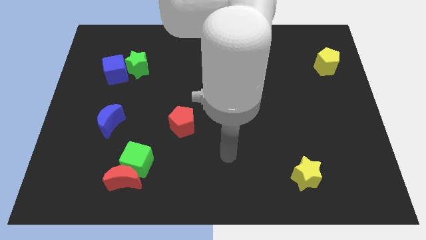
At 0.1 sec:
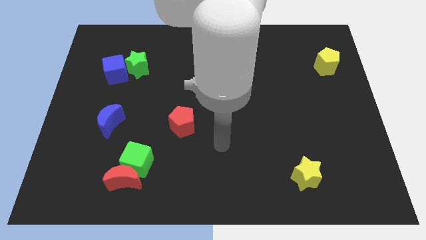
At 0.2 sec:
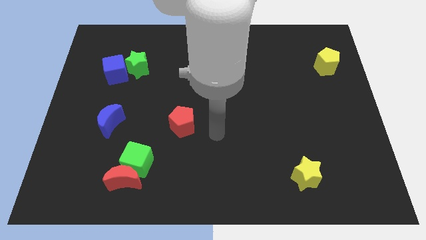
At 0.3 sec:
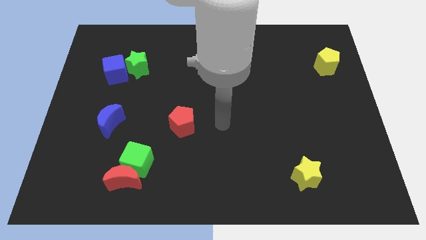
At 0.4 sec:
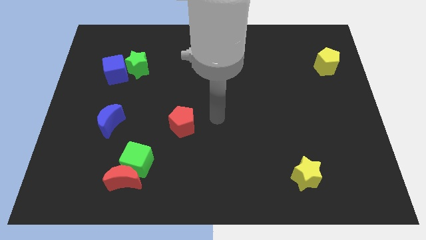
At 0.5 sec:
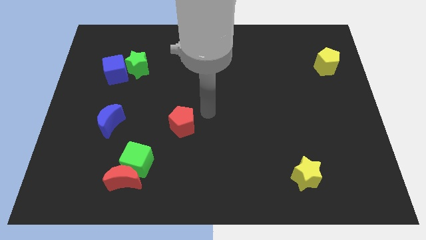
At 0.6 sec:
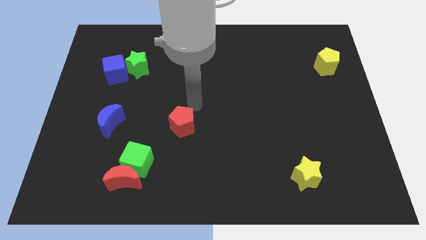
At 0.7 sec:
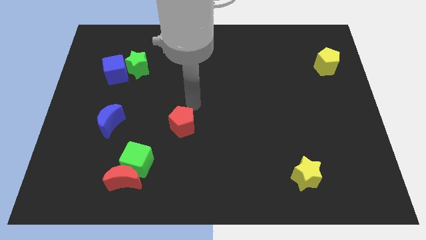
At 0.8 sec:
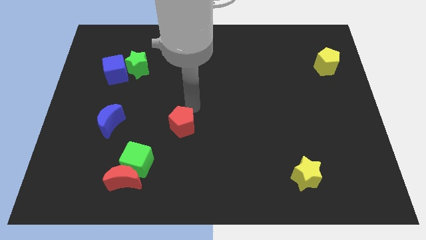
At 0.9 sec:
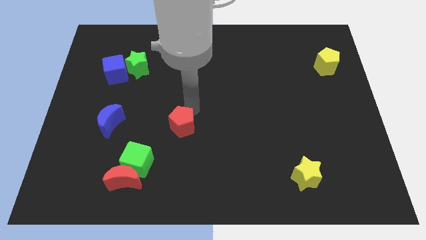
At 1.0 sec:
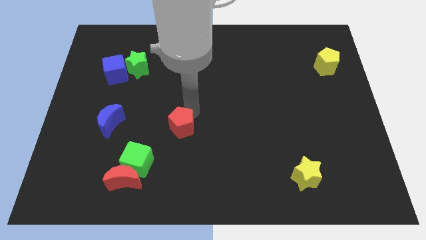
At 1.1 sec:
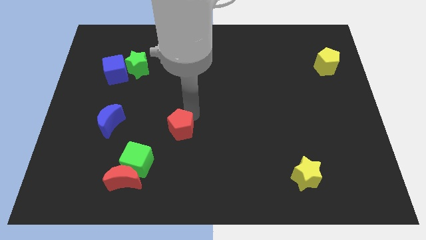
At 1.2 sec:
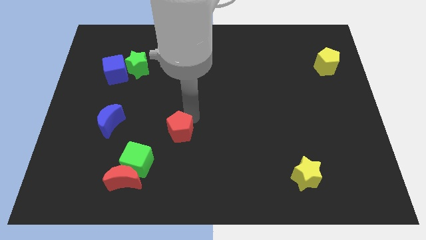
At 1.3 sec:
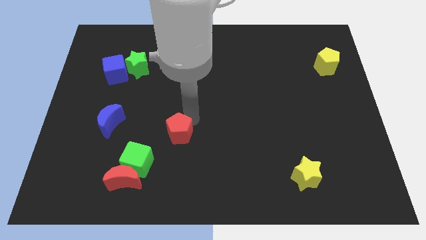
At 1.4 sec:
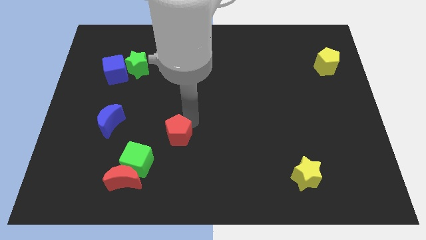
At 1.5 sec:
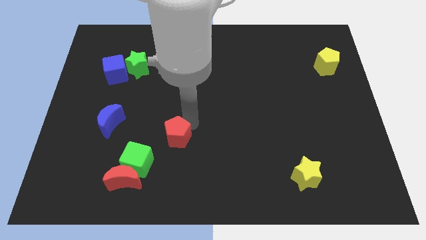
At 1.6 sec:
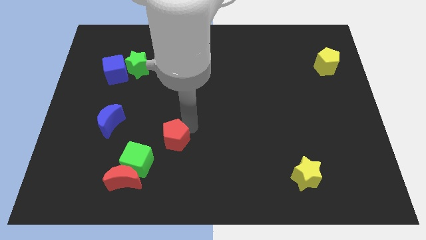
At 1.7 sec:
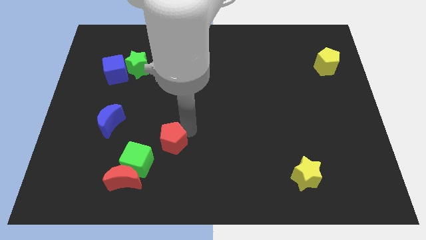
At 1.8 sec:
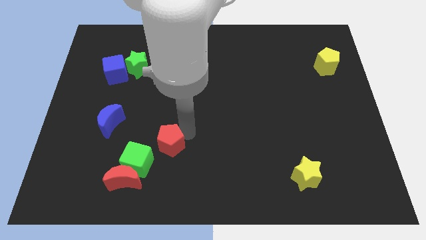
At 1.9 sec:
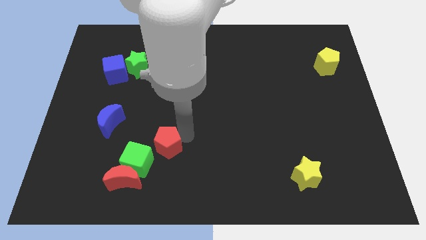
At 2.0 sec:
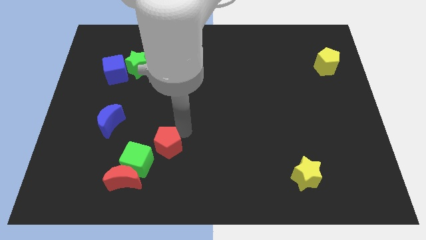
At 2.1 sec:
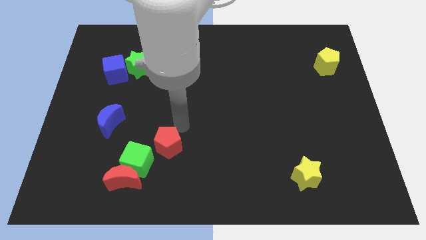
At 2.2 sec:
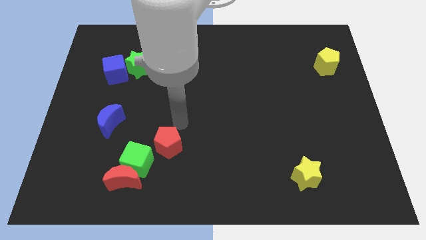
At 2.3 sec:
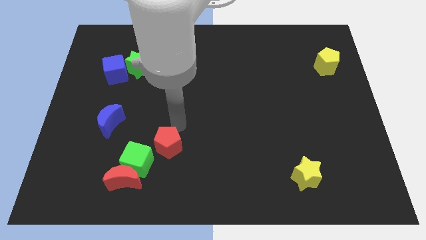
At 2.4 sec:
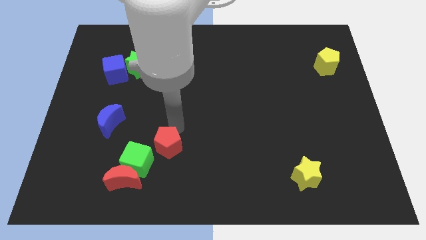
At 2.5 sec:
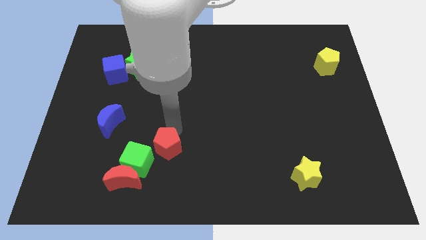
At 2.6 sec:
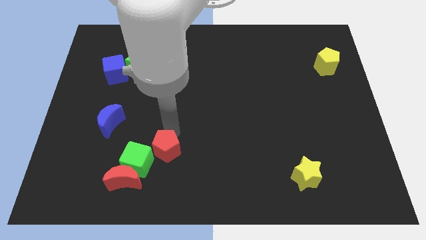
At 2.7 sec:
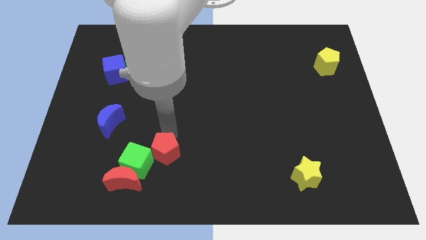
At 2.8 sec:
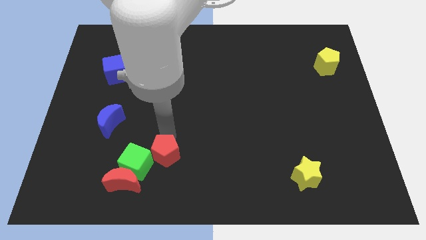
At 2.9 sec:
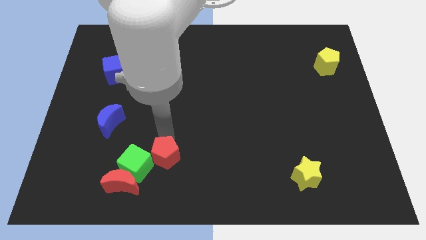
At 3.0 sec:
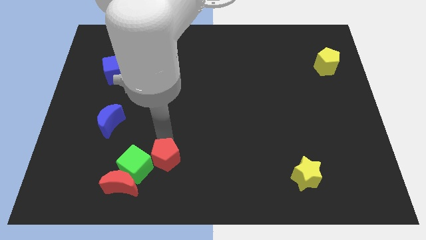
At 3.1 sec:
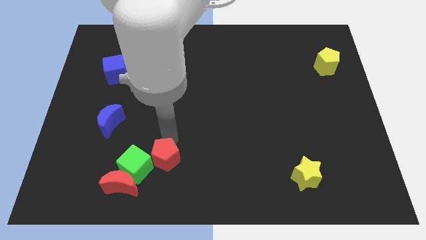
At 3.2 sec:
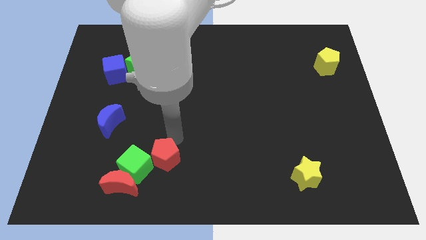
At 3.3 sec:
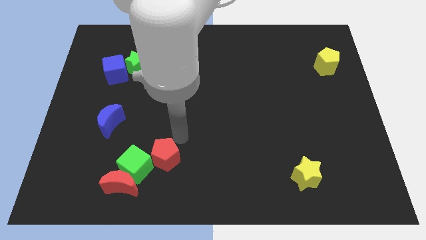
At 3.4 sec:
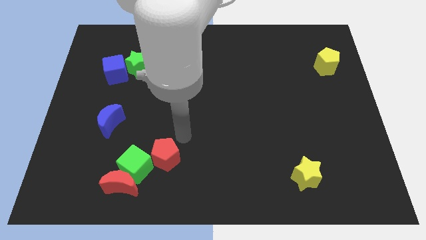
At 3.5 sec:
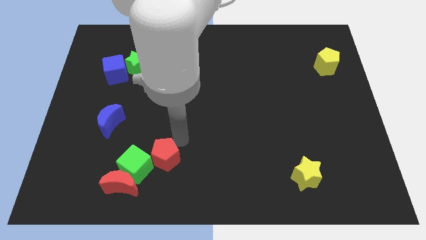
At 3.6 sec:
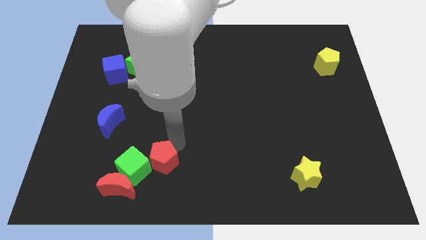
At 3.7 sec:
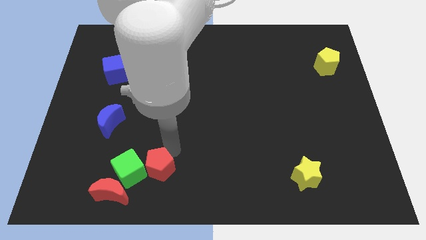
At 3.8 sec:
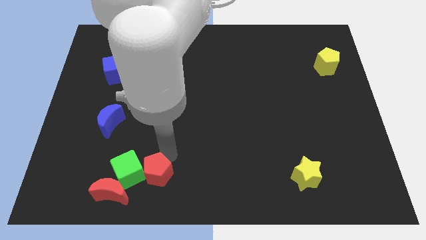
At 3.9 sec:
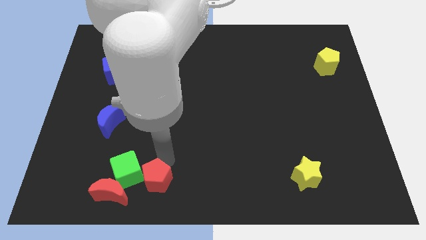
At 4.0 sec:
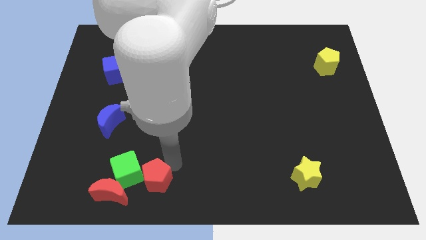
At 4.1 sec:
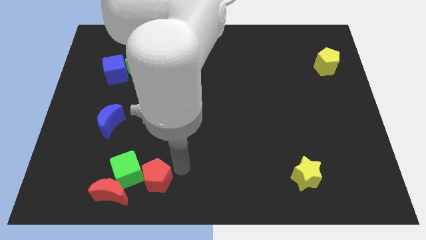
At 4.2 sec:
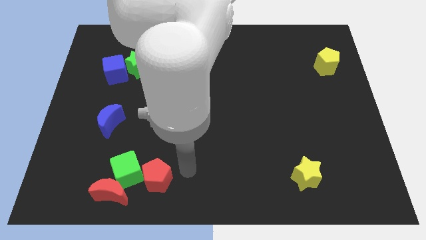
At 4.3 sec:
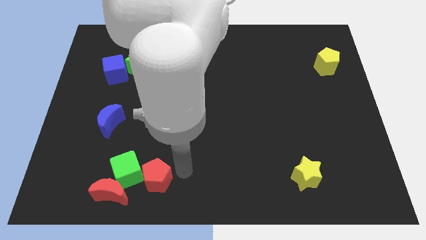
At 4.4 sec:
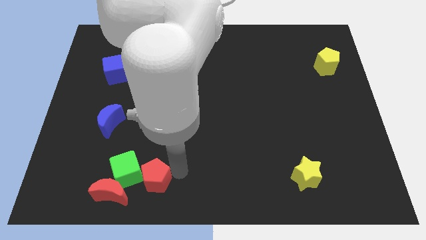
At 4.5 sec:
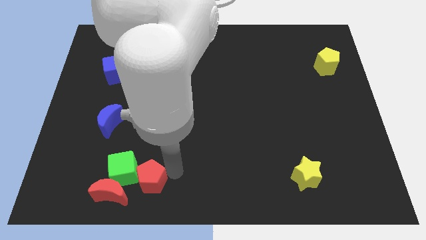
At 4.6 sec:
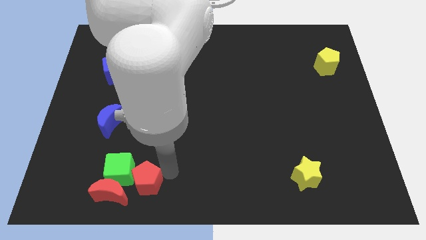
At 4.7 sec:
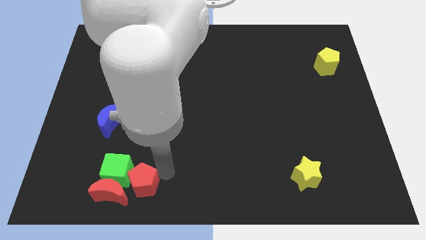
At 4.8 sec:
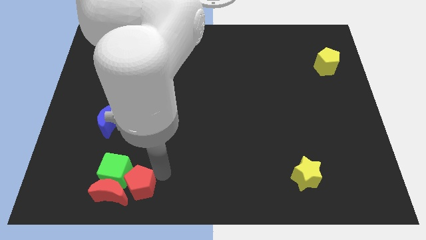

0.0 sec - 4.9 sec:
slide the red pentagon close to the red moon

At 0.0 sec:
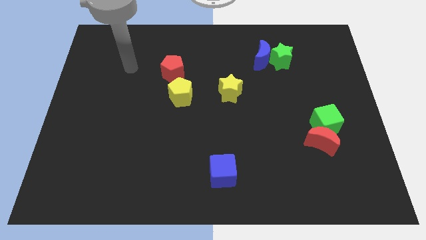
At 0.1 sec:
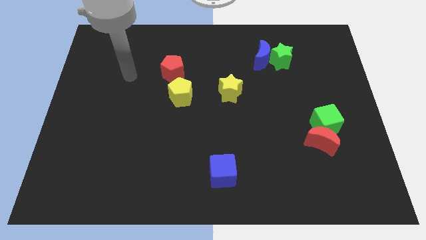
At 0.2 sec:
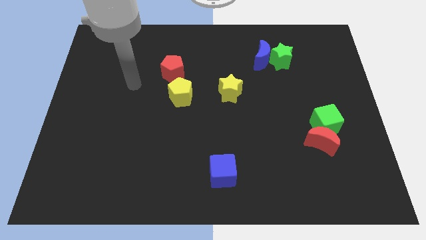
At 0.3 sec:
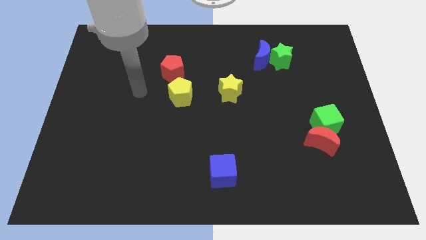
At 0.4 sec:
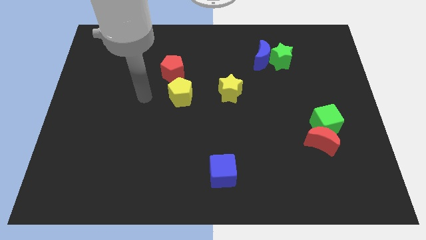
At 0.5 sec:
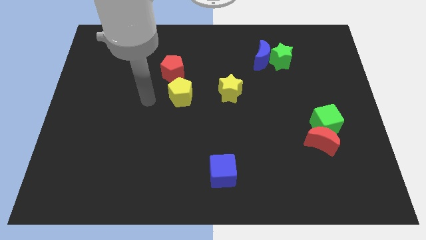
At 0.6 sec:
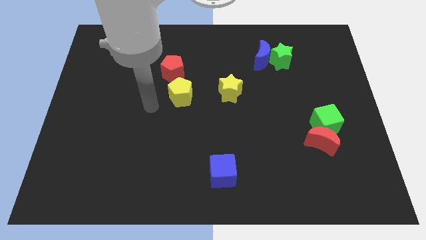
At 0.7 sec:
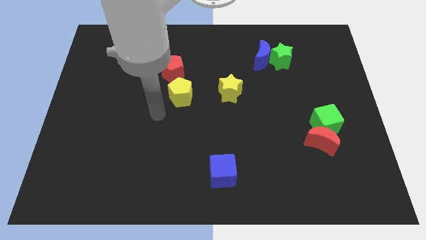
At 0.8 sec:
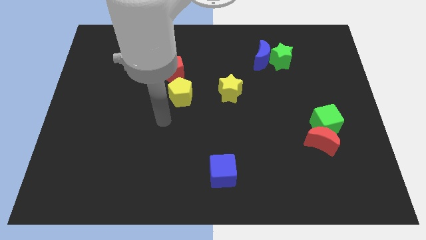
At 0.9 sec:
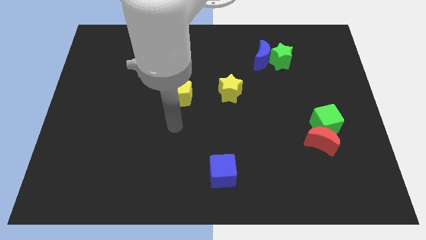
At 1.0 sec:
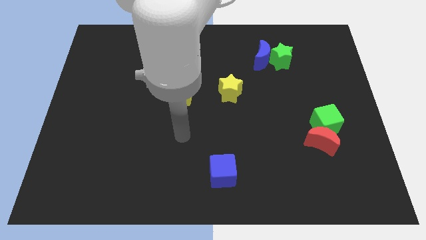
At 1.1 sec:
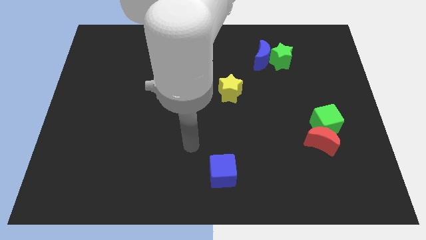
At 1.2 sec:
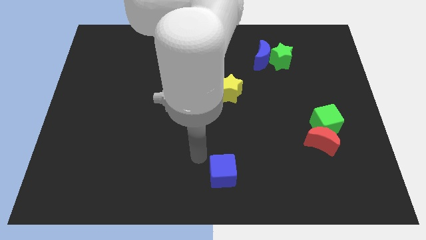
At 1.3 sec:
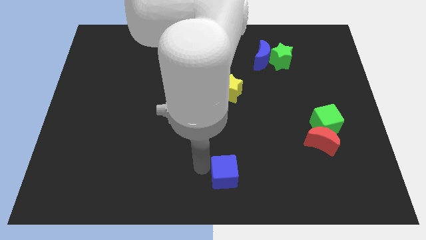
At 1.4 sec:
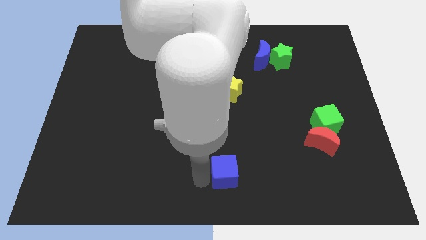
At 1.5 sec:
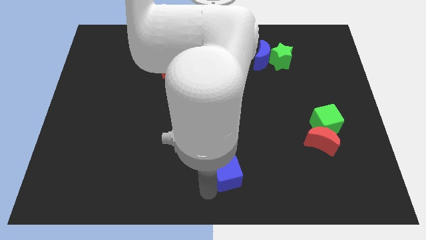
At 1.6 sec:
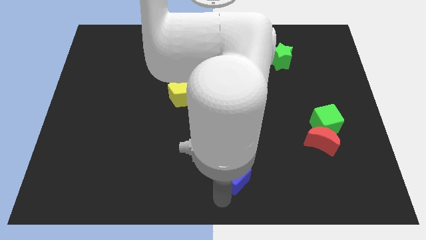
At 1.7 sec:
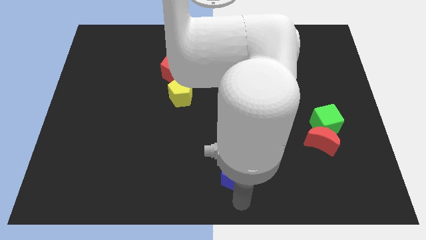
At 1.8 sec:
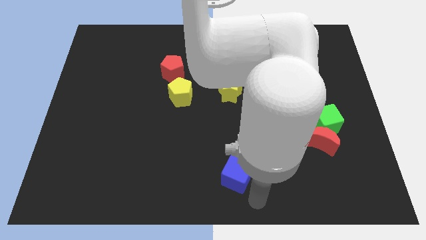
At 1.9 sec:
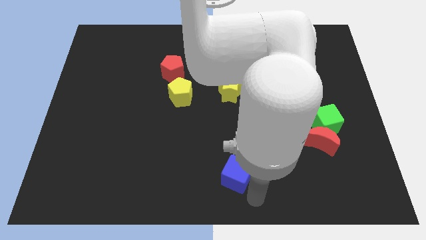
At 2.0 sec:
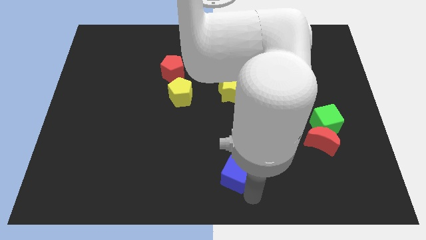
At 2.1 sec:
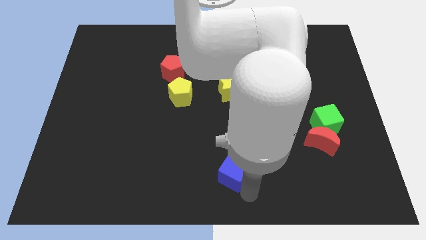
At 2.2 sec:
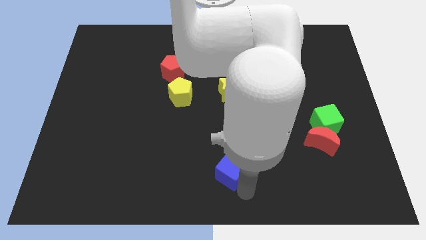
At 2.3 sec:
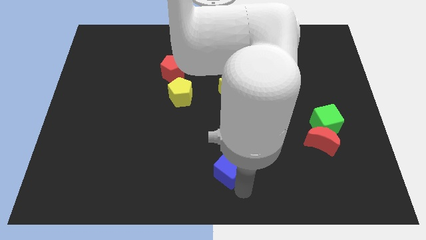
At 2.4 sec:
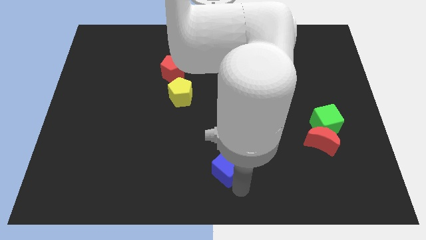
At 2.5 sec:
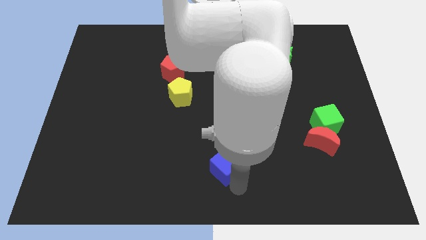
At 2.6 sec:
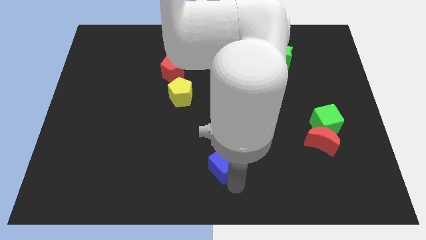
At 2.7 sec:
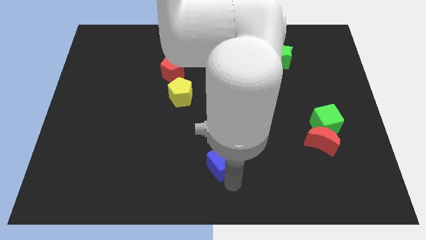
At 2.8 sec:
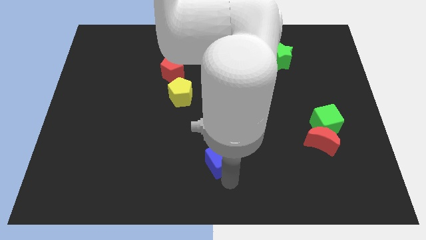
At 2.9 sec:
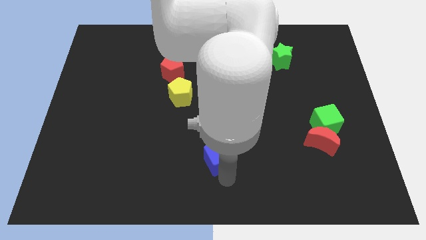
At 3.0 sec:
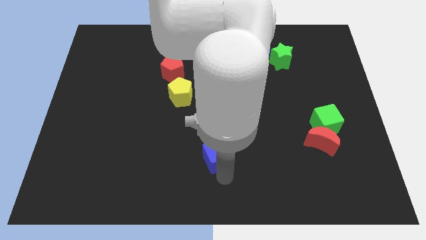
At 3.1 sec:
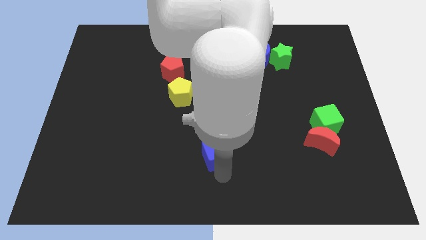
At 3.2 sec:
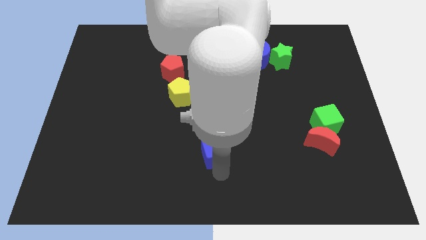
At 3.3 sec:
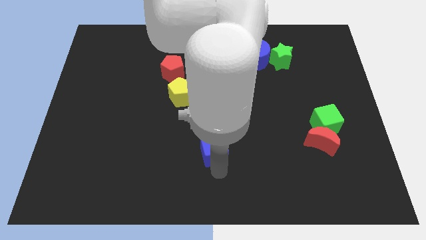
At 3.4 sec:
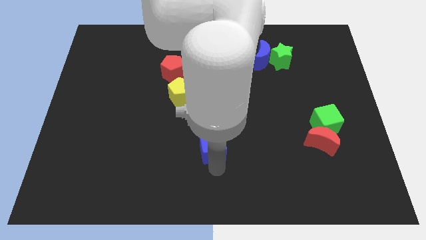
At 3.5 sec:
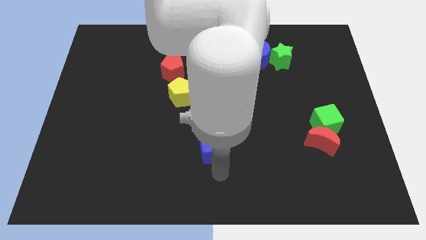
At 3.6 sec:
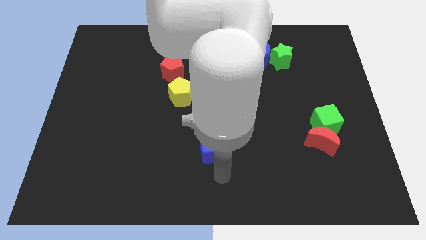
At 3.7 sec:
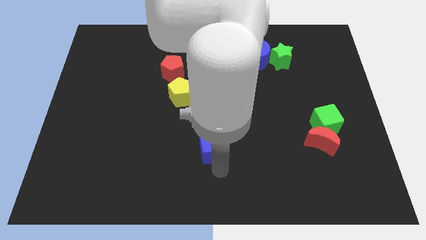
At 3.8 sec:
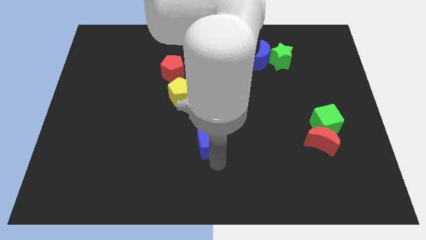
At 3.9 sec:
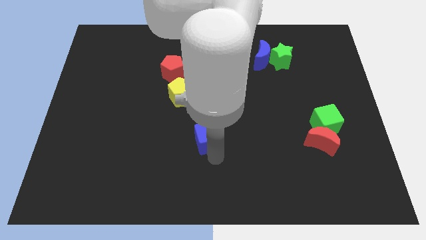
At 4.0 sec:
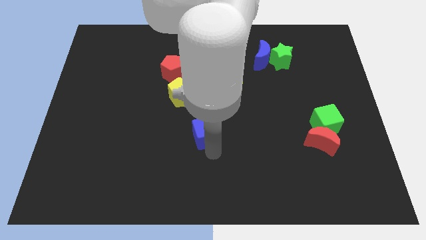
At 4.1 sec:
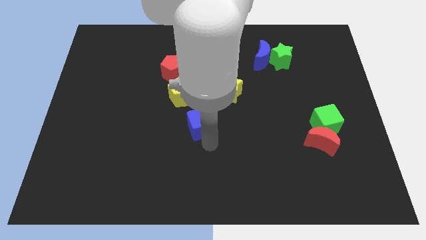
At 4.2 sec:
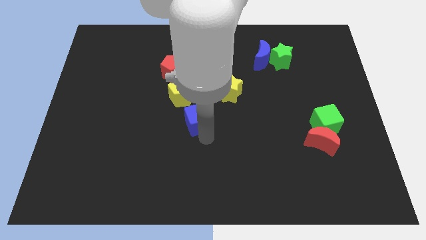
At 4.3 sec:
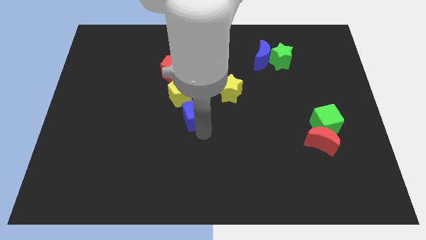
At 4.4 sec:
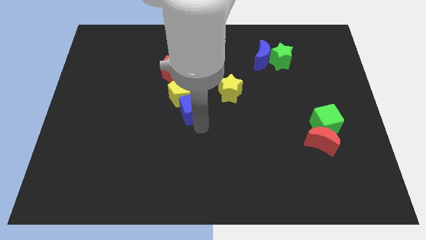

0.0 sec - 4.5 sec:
move the blue cube next to the yellow pentagon
